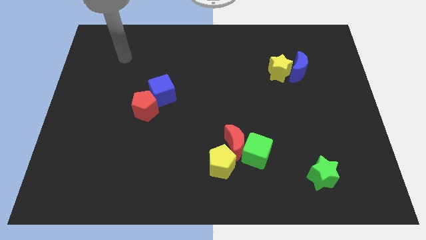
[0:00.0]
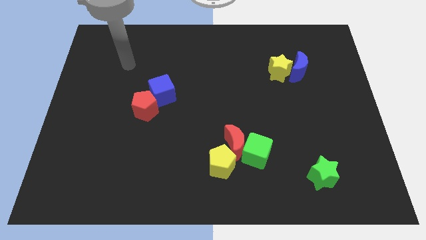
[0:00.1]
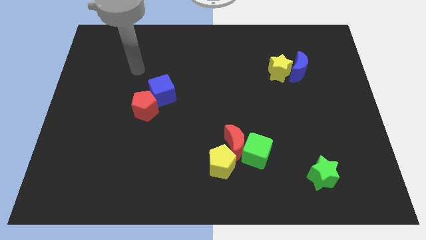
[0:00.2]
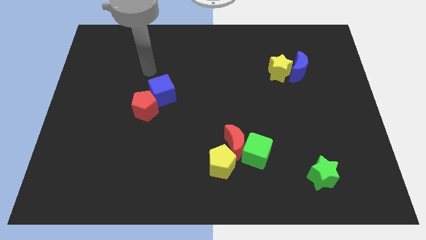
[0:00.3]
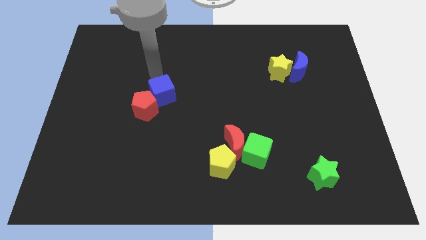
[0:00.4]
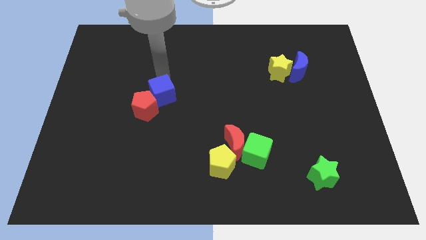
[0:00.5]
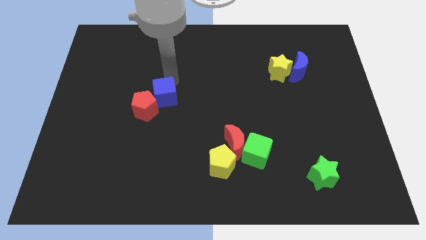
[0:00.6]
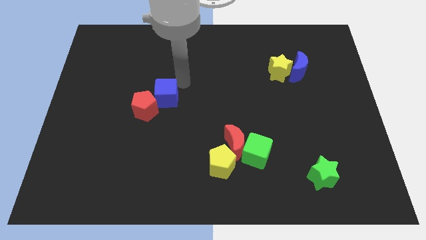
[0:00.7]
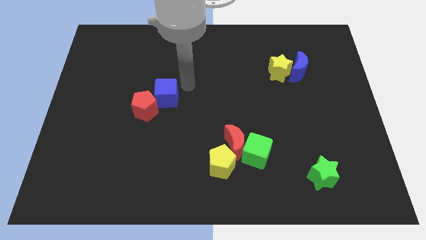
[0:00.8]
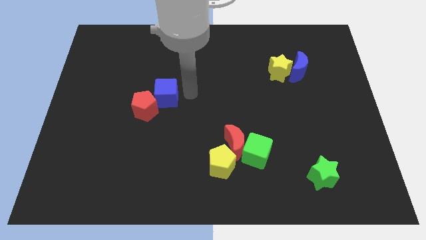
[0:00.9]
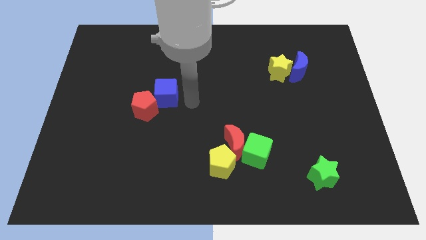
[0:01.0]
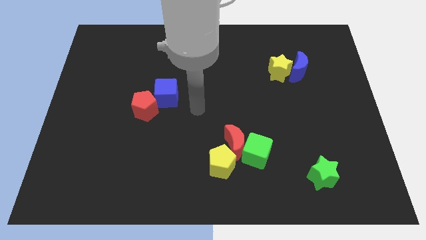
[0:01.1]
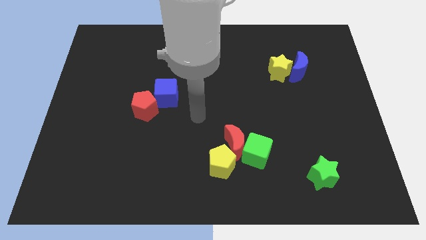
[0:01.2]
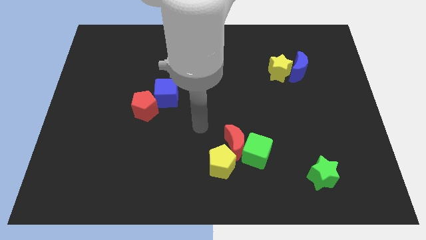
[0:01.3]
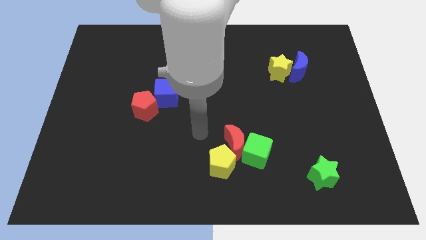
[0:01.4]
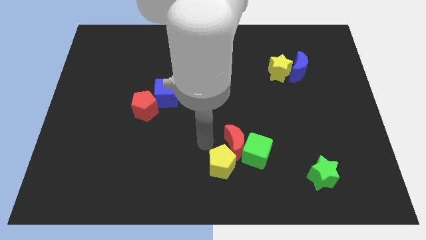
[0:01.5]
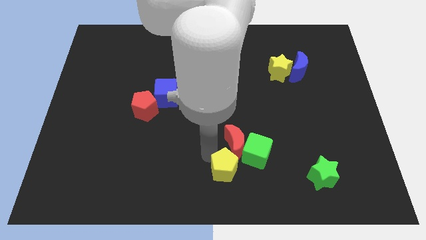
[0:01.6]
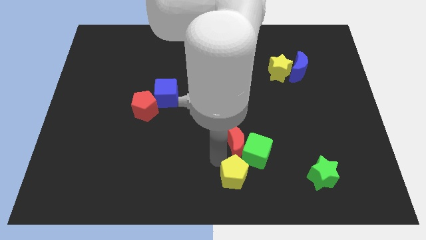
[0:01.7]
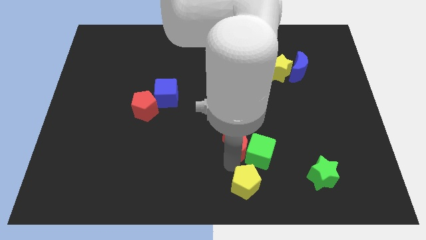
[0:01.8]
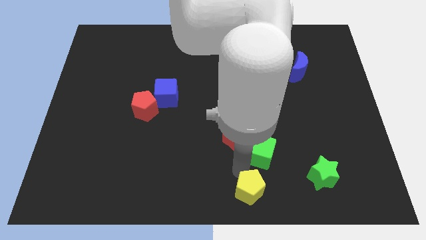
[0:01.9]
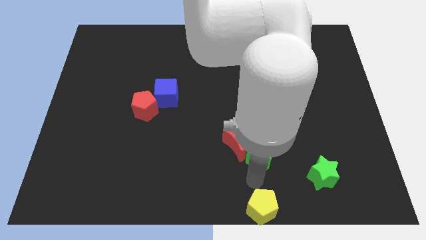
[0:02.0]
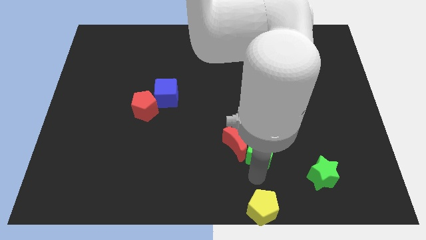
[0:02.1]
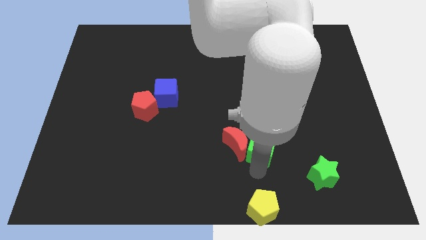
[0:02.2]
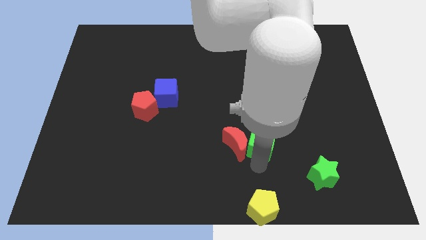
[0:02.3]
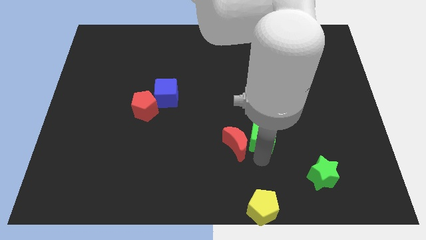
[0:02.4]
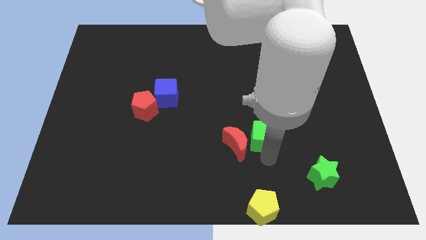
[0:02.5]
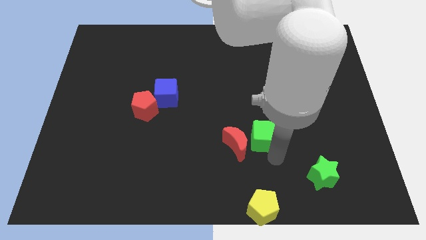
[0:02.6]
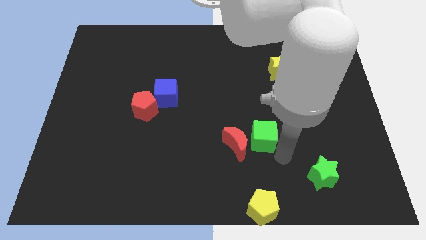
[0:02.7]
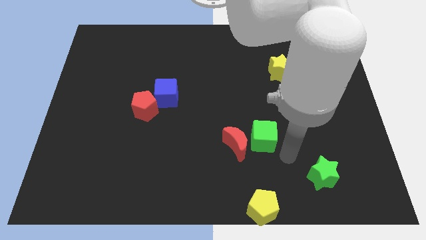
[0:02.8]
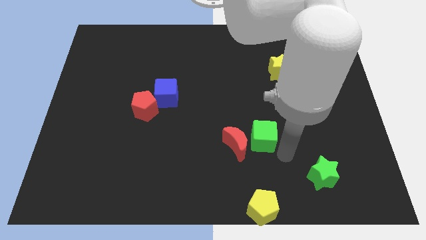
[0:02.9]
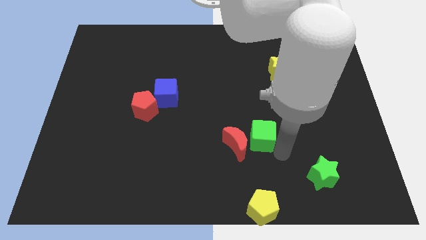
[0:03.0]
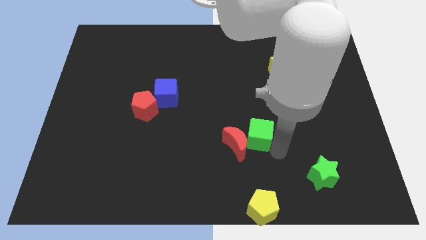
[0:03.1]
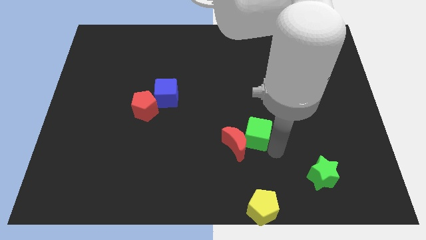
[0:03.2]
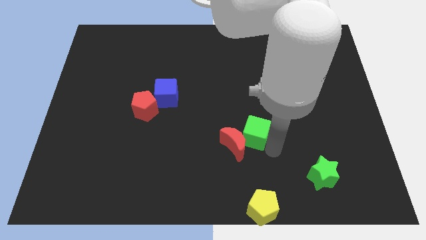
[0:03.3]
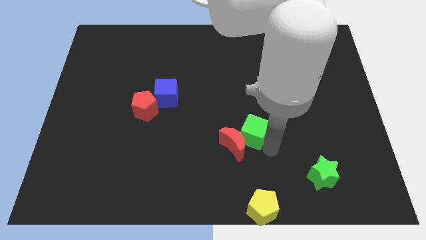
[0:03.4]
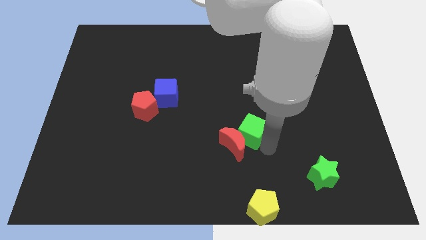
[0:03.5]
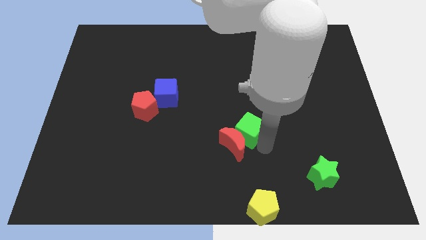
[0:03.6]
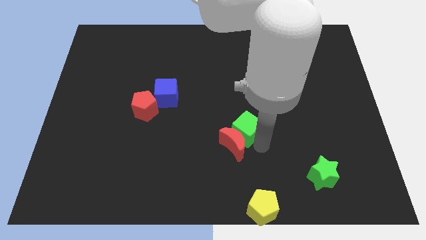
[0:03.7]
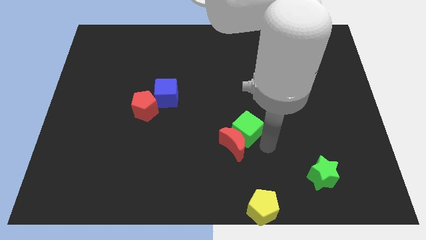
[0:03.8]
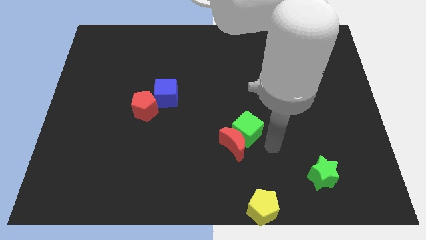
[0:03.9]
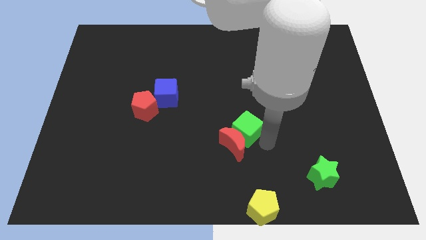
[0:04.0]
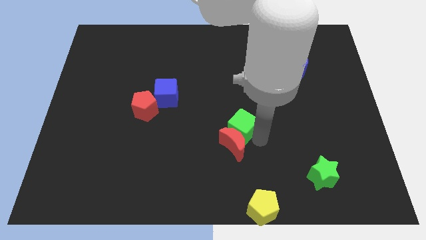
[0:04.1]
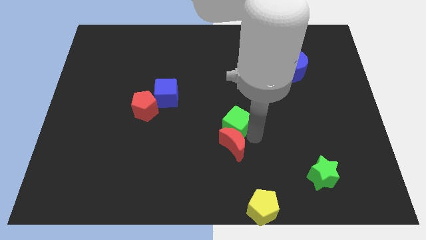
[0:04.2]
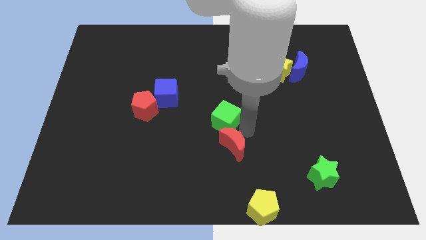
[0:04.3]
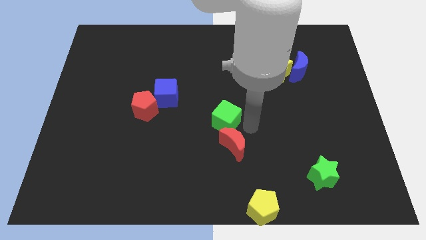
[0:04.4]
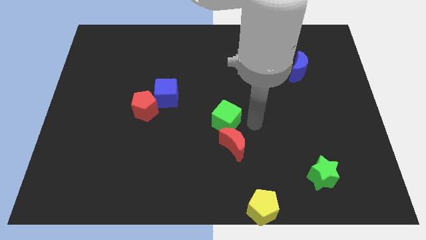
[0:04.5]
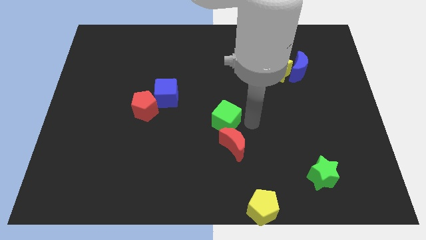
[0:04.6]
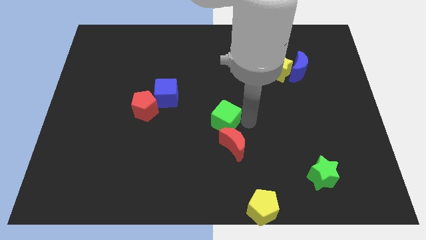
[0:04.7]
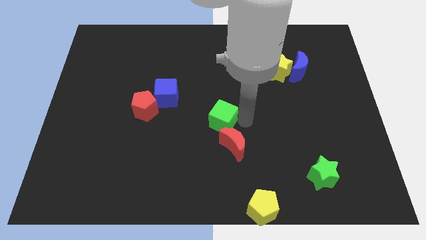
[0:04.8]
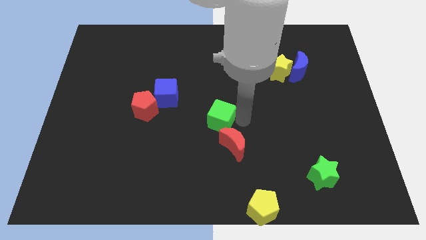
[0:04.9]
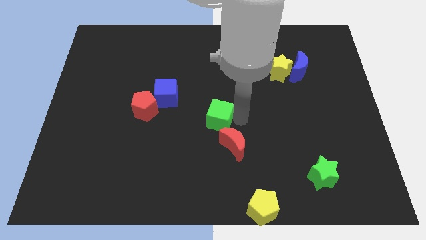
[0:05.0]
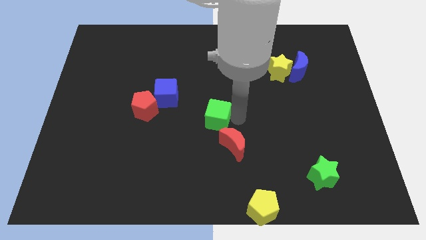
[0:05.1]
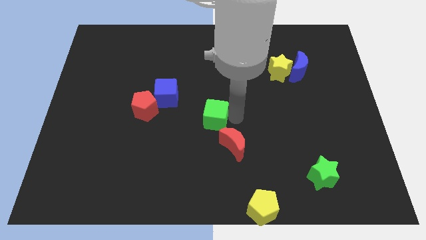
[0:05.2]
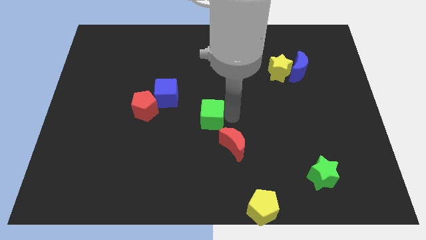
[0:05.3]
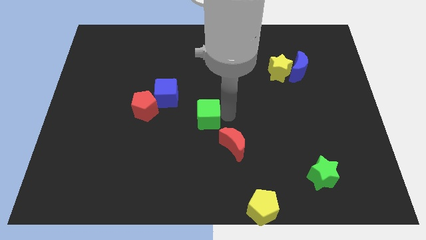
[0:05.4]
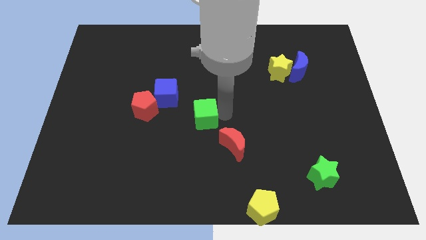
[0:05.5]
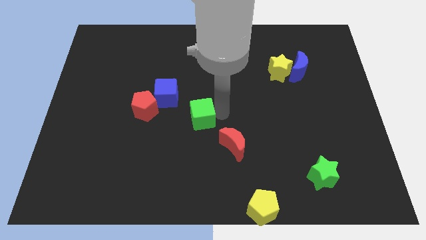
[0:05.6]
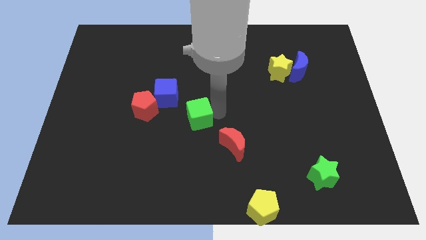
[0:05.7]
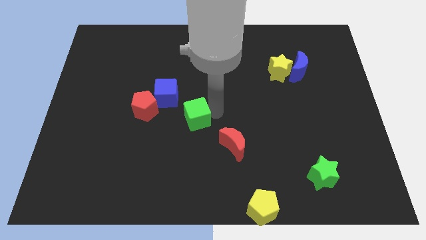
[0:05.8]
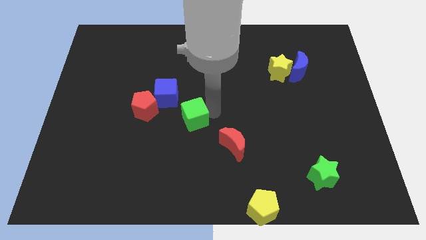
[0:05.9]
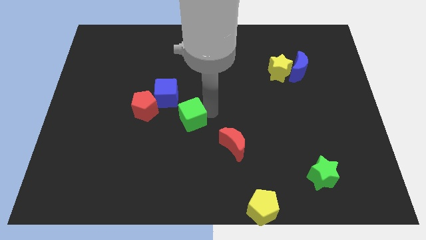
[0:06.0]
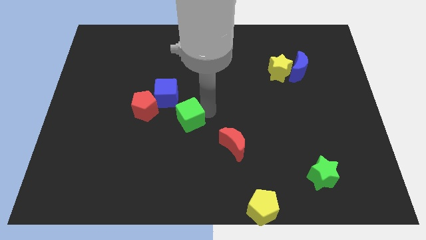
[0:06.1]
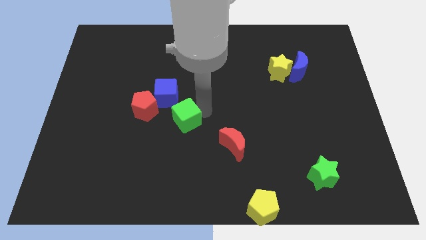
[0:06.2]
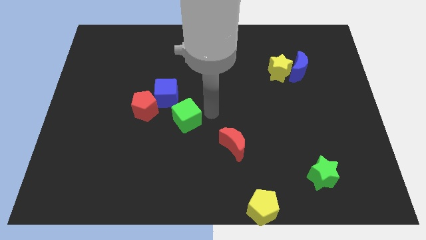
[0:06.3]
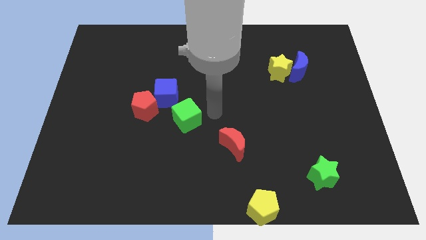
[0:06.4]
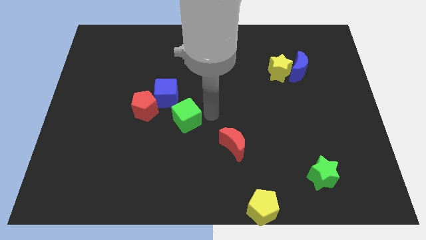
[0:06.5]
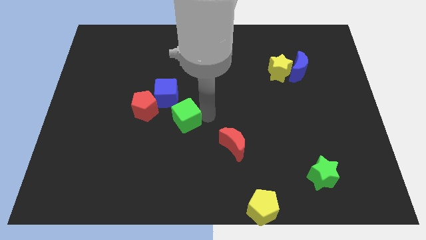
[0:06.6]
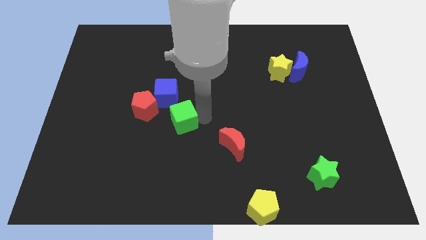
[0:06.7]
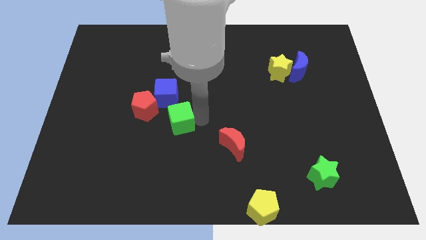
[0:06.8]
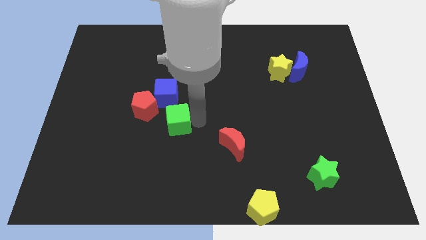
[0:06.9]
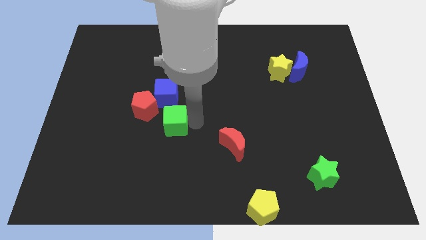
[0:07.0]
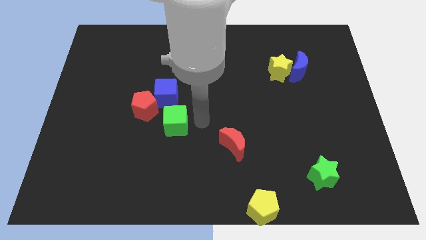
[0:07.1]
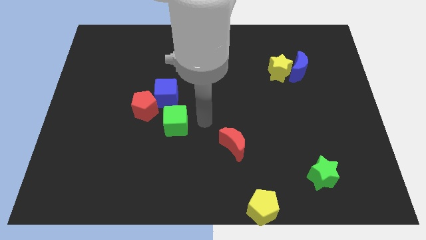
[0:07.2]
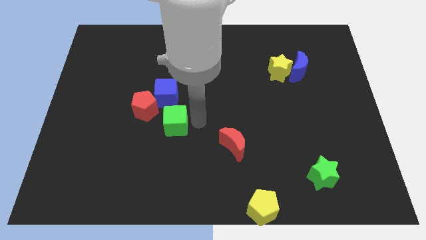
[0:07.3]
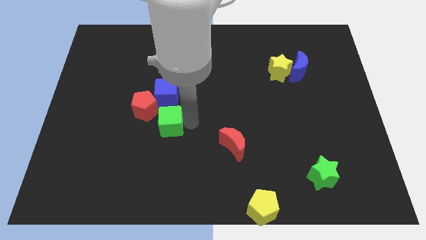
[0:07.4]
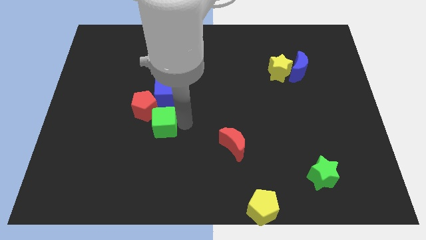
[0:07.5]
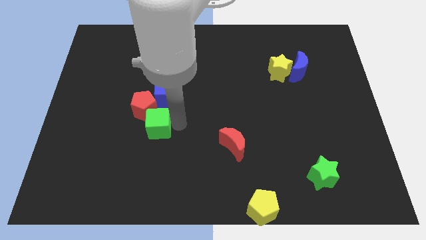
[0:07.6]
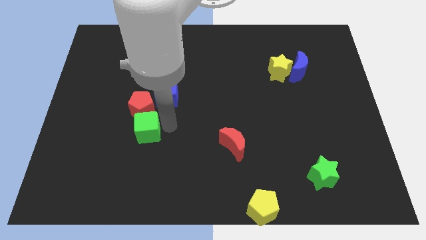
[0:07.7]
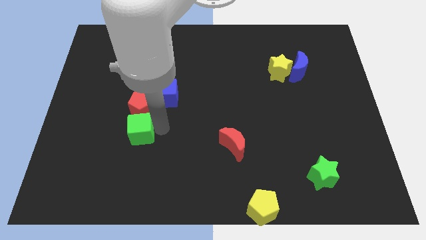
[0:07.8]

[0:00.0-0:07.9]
put the green cube to the bottom left of the red pentagon
